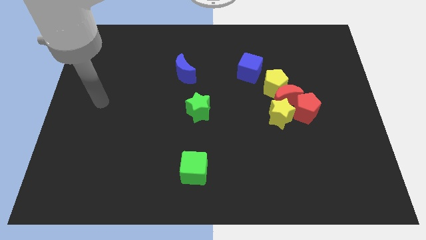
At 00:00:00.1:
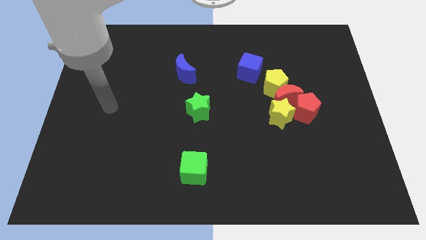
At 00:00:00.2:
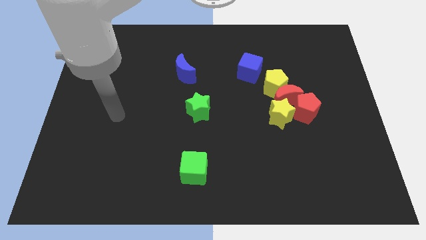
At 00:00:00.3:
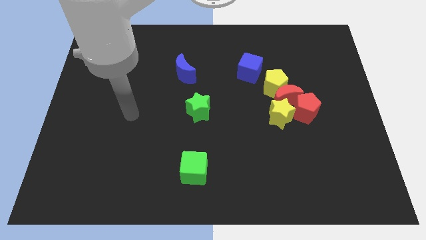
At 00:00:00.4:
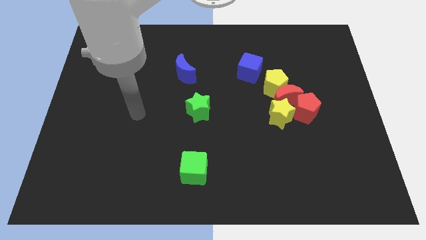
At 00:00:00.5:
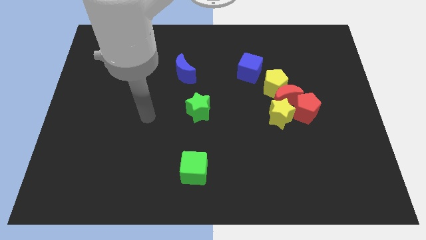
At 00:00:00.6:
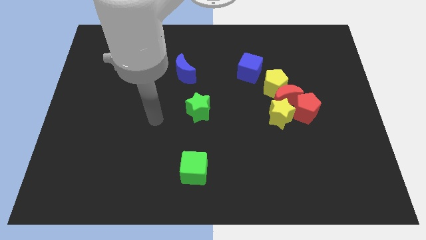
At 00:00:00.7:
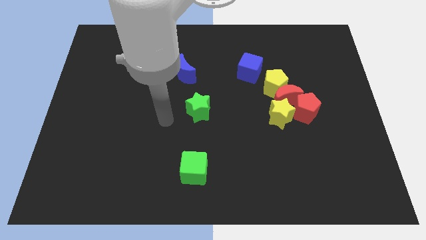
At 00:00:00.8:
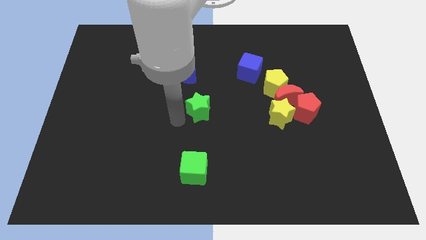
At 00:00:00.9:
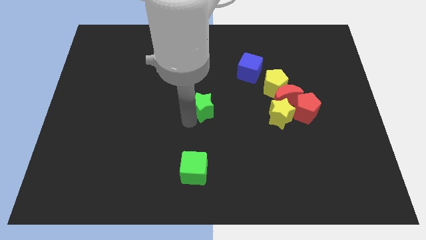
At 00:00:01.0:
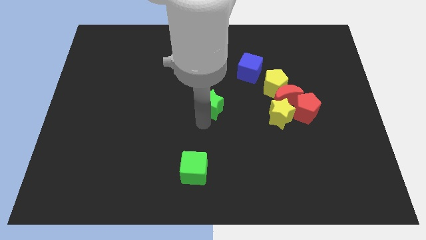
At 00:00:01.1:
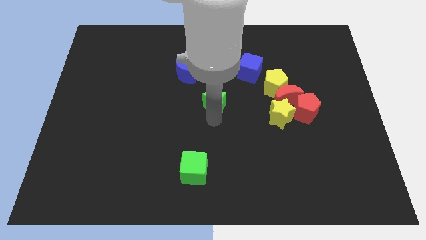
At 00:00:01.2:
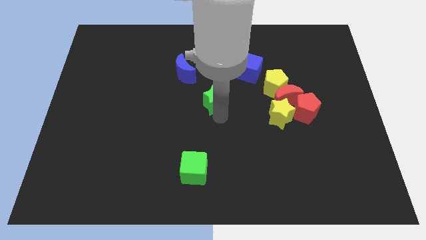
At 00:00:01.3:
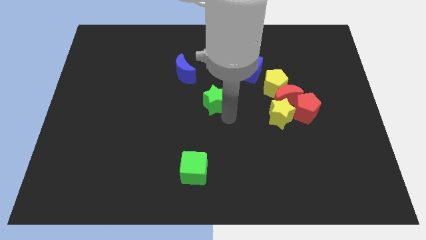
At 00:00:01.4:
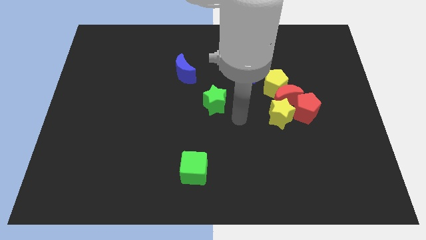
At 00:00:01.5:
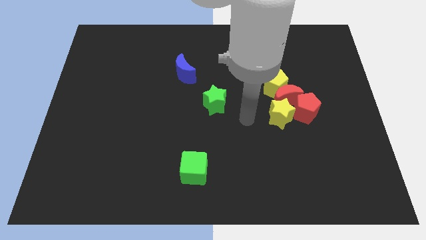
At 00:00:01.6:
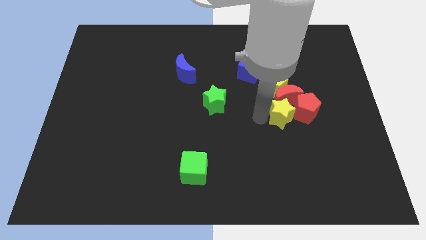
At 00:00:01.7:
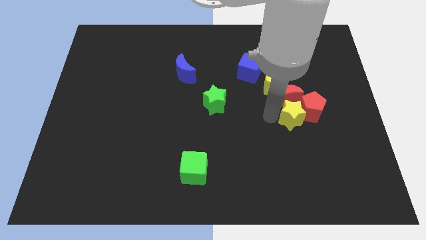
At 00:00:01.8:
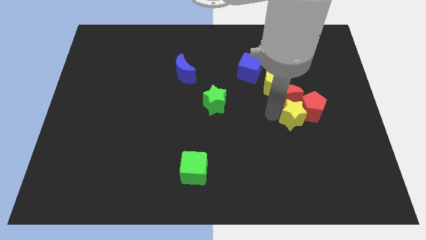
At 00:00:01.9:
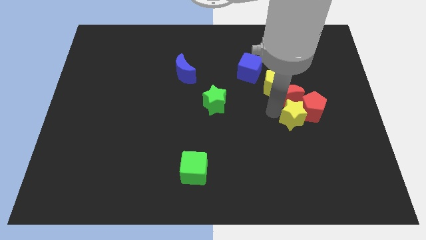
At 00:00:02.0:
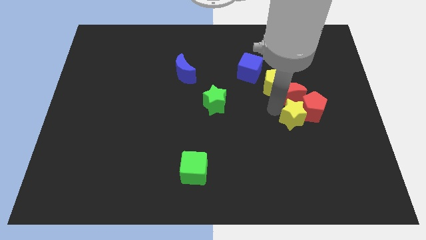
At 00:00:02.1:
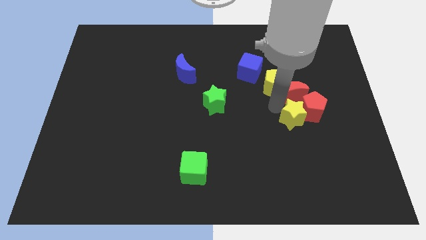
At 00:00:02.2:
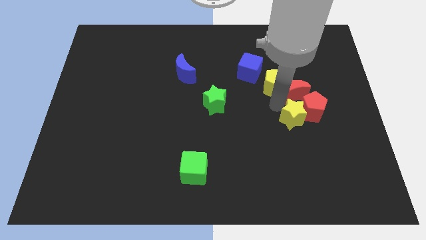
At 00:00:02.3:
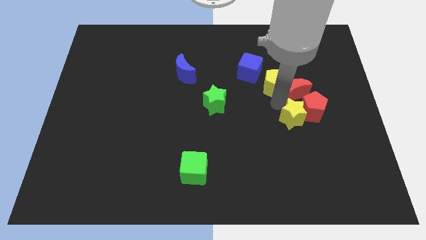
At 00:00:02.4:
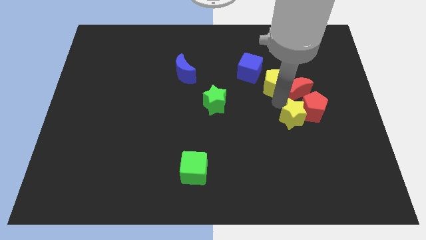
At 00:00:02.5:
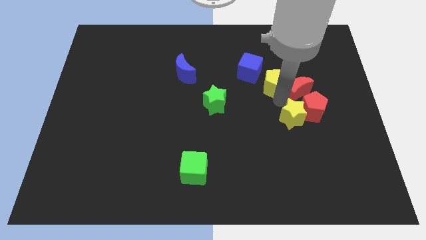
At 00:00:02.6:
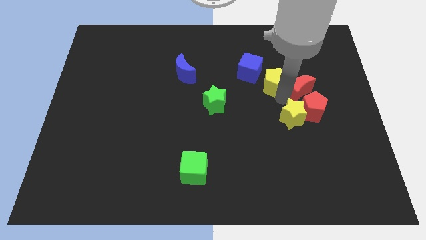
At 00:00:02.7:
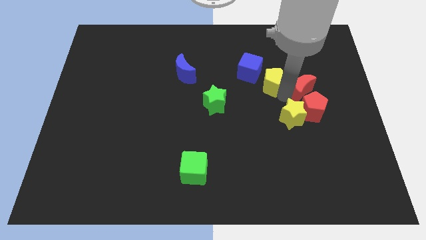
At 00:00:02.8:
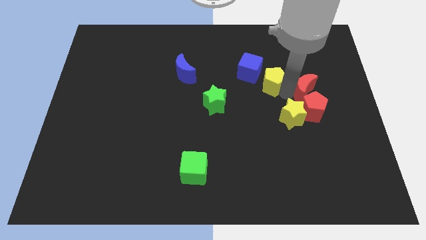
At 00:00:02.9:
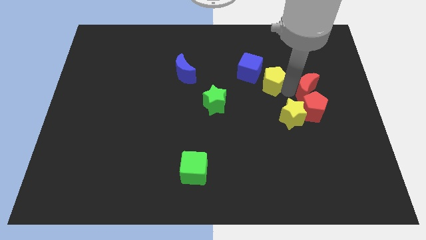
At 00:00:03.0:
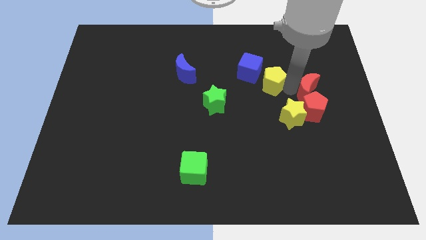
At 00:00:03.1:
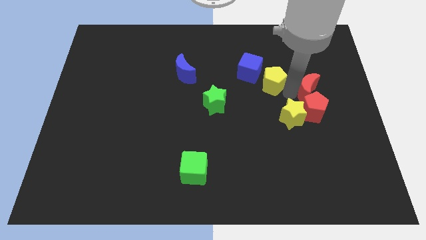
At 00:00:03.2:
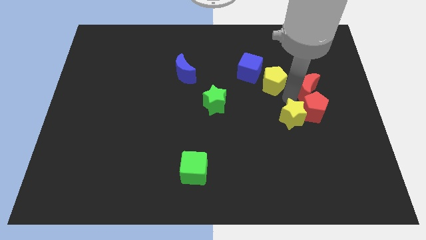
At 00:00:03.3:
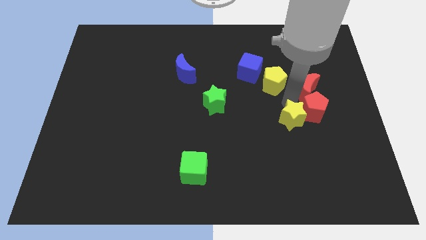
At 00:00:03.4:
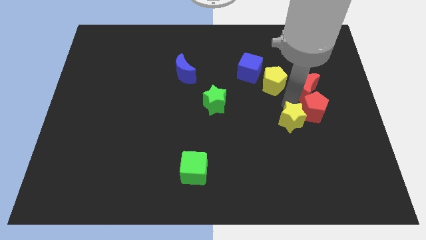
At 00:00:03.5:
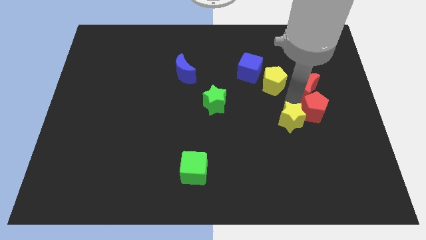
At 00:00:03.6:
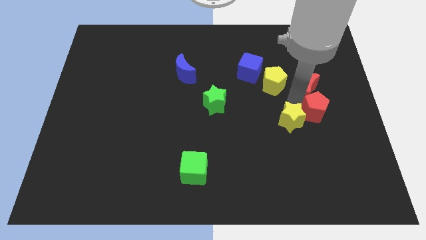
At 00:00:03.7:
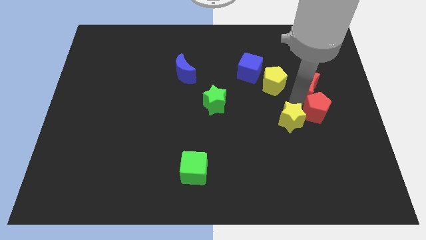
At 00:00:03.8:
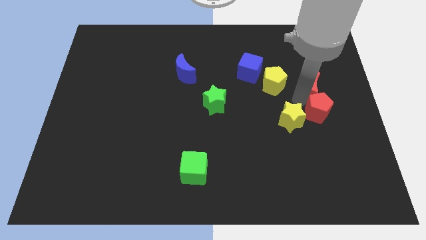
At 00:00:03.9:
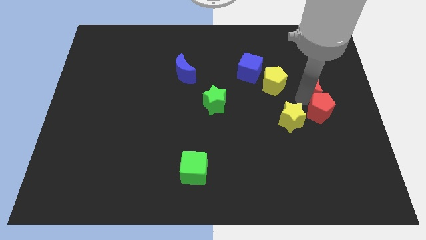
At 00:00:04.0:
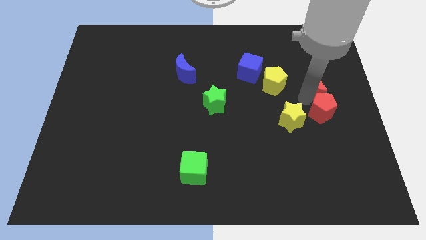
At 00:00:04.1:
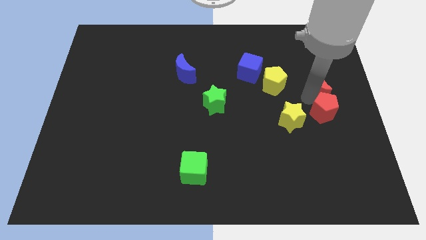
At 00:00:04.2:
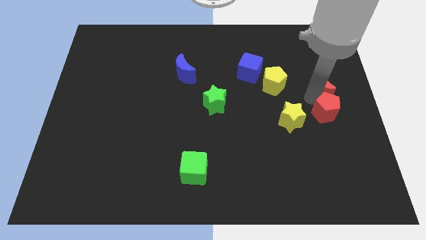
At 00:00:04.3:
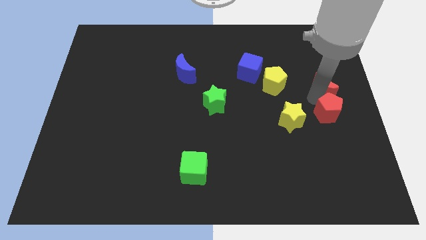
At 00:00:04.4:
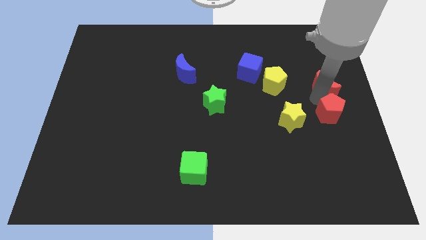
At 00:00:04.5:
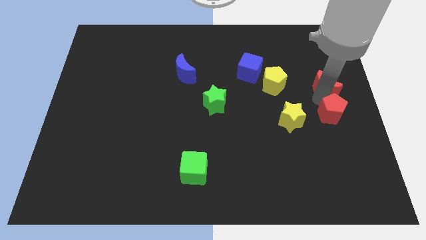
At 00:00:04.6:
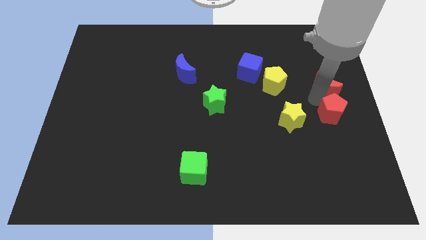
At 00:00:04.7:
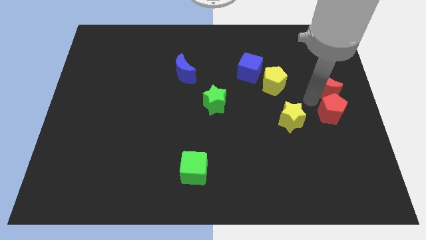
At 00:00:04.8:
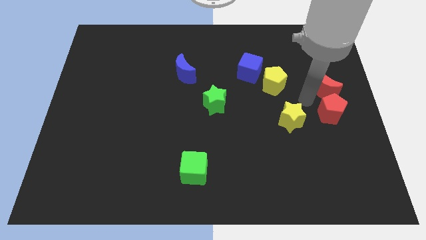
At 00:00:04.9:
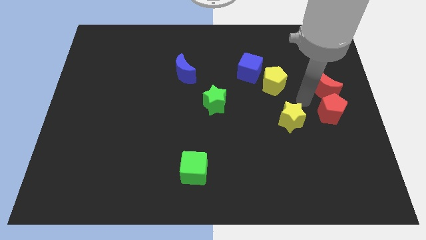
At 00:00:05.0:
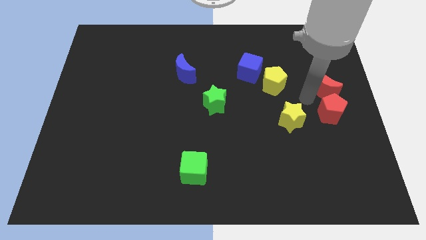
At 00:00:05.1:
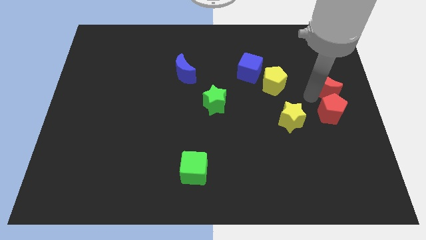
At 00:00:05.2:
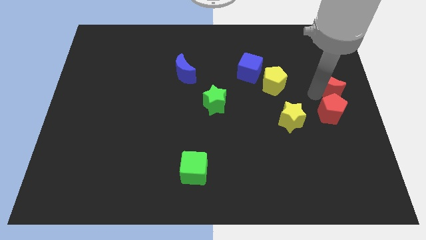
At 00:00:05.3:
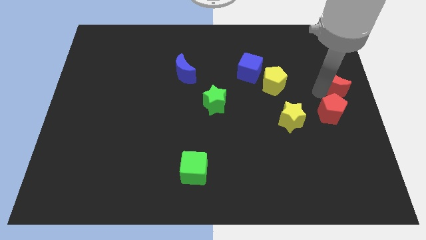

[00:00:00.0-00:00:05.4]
pull the red moon apart from the yellow pentagon, red pentagon, and yellow star

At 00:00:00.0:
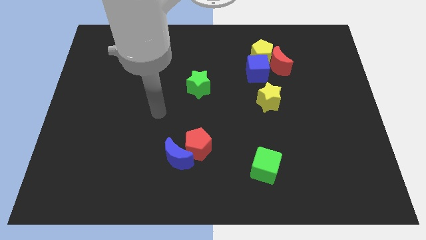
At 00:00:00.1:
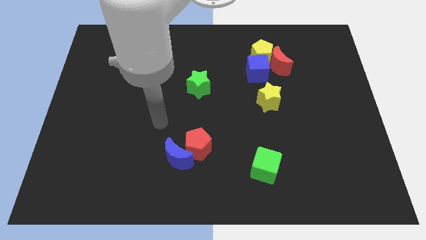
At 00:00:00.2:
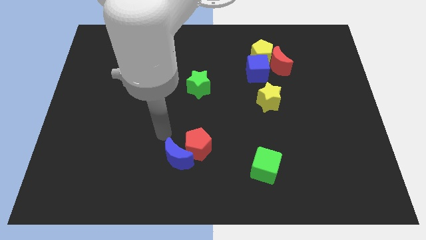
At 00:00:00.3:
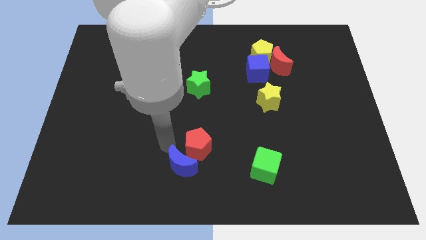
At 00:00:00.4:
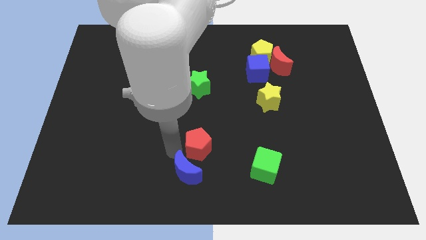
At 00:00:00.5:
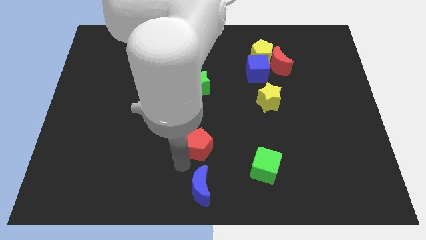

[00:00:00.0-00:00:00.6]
pull the red pentagon apart from the blue moon

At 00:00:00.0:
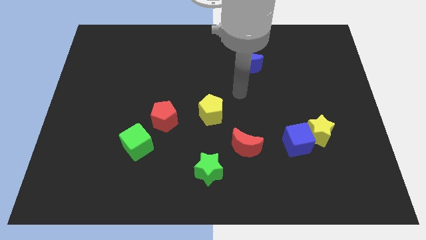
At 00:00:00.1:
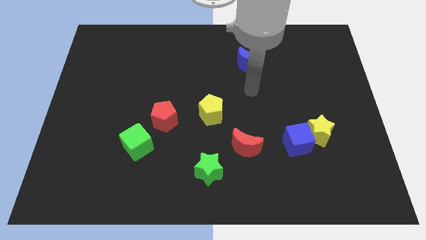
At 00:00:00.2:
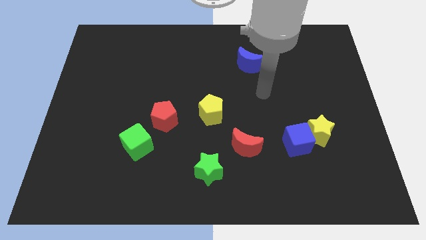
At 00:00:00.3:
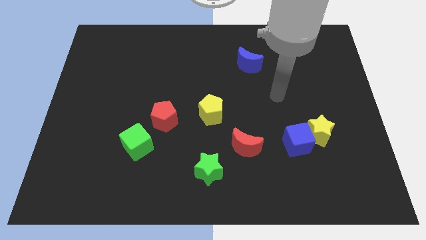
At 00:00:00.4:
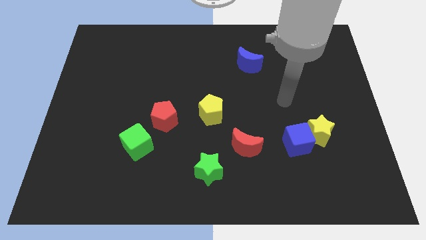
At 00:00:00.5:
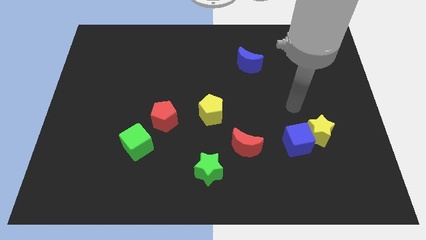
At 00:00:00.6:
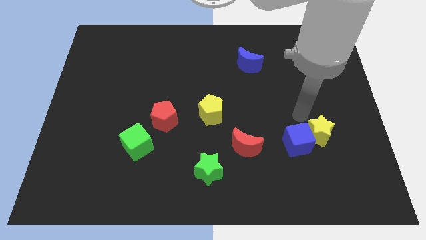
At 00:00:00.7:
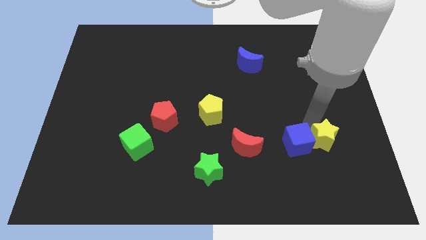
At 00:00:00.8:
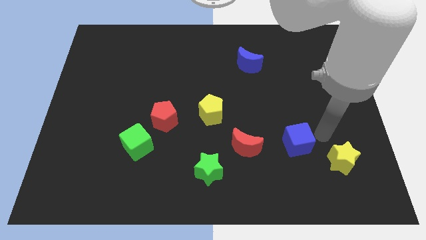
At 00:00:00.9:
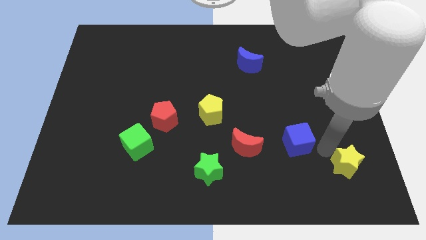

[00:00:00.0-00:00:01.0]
pull the blue cube apart from the yellow star

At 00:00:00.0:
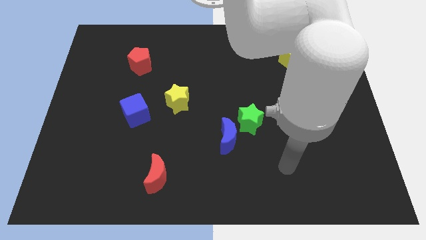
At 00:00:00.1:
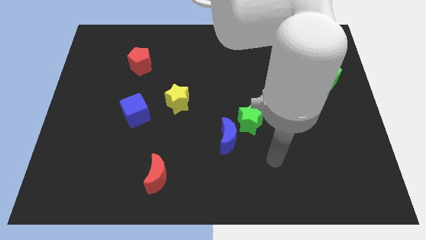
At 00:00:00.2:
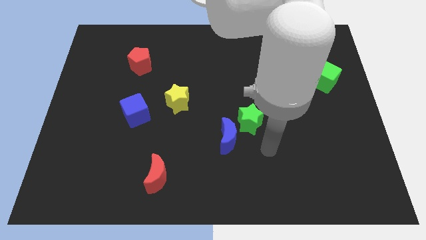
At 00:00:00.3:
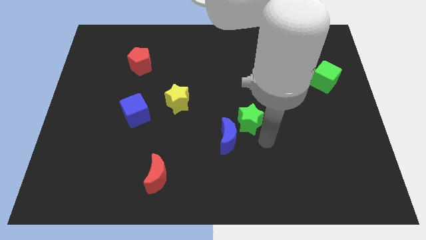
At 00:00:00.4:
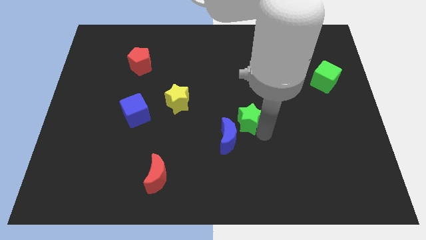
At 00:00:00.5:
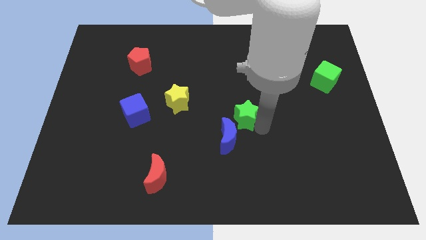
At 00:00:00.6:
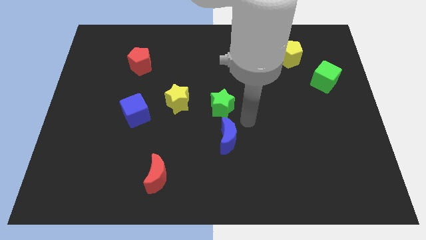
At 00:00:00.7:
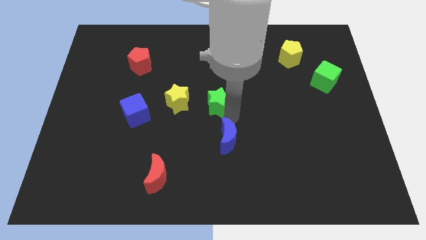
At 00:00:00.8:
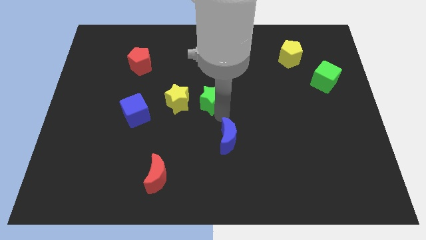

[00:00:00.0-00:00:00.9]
move the blue moon away from the green star

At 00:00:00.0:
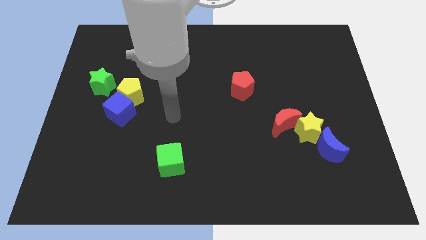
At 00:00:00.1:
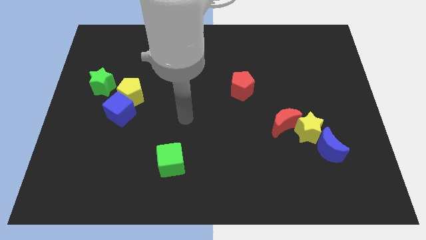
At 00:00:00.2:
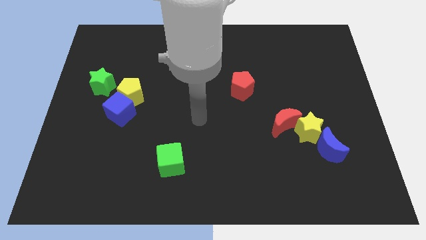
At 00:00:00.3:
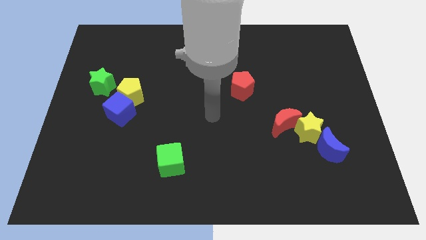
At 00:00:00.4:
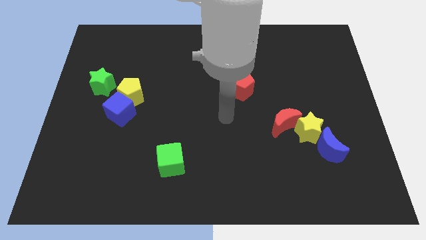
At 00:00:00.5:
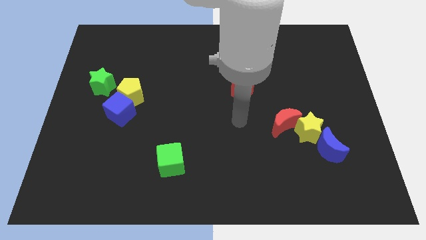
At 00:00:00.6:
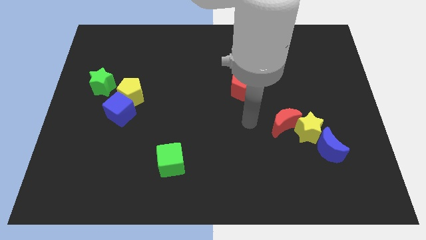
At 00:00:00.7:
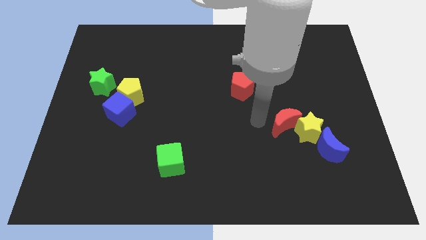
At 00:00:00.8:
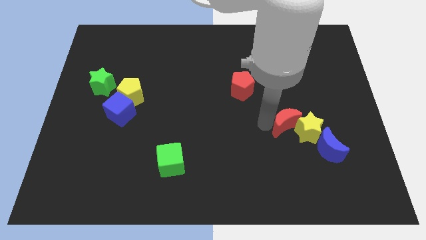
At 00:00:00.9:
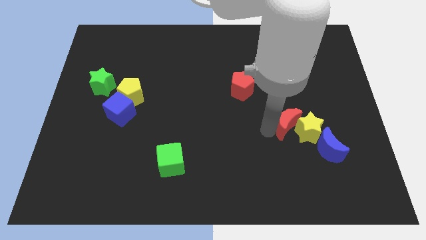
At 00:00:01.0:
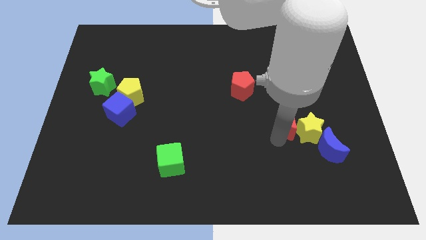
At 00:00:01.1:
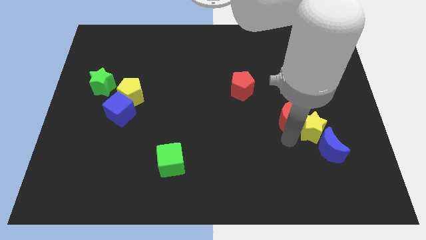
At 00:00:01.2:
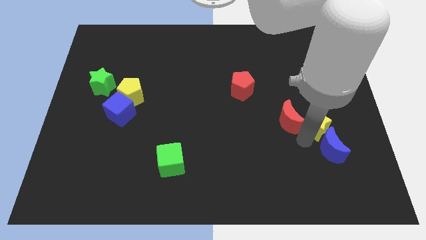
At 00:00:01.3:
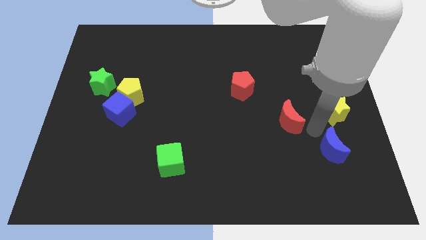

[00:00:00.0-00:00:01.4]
move the red moon away from the yellow star
